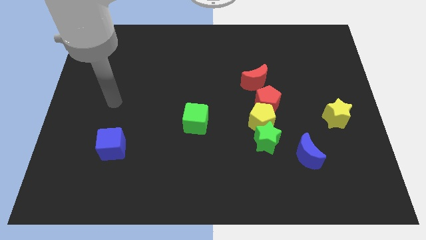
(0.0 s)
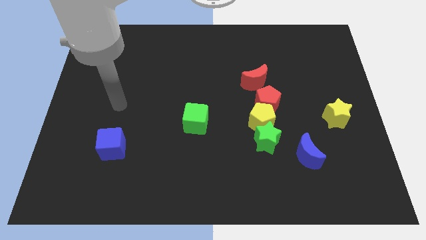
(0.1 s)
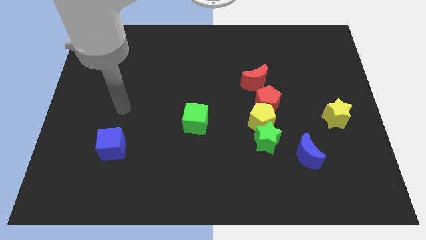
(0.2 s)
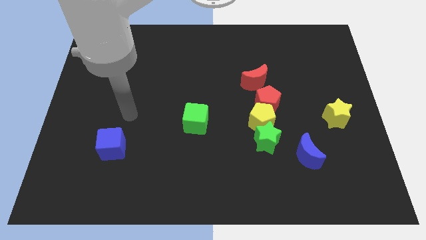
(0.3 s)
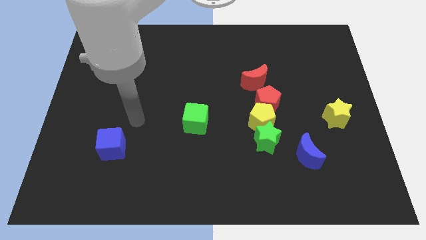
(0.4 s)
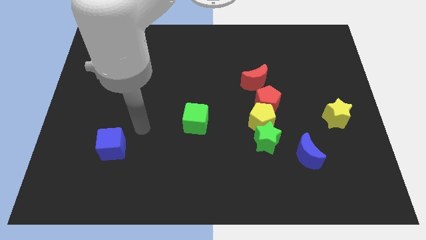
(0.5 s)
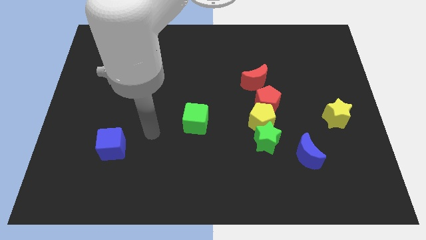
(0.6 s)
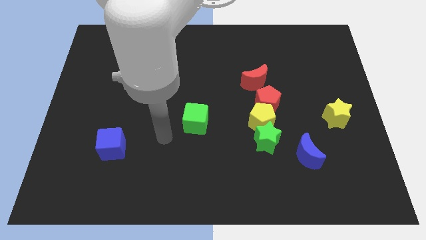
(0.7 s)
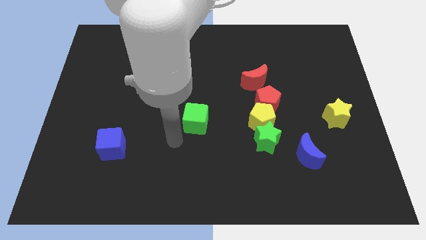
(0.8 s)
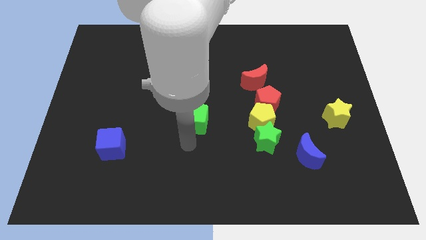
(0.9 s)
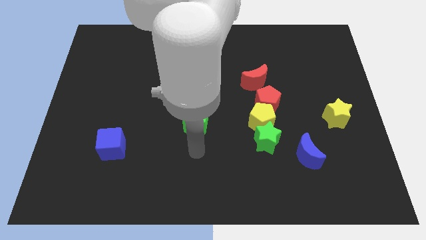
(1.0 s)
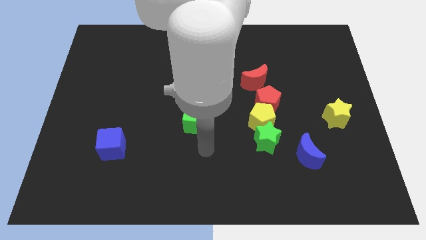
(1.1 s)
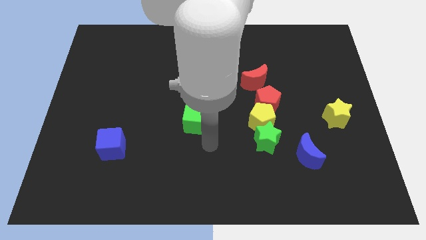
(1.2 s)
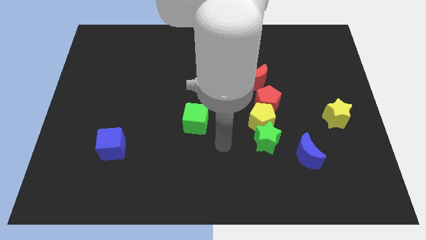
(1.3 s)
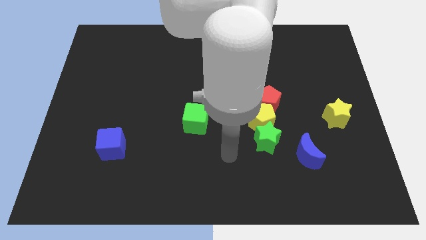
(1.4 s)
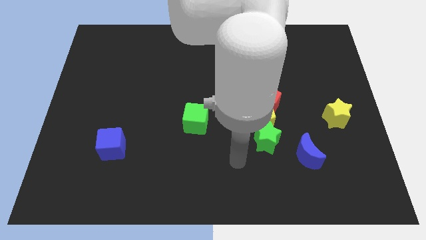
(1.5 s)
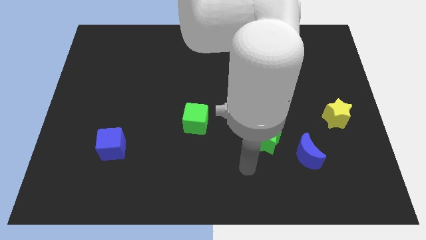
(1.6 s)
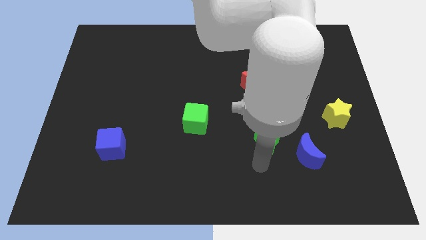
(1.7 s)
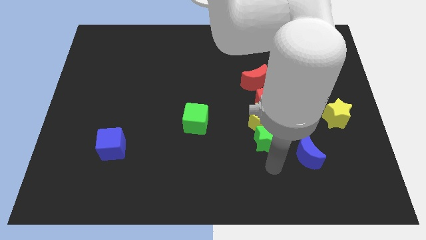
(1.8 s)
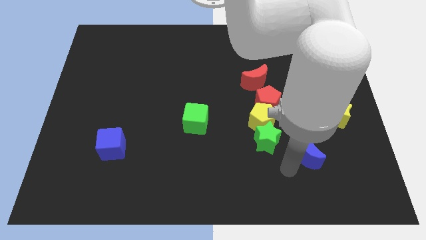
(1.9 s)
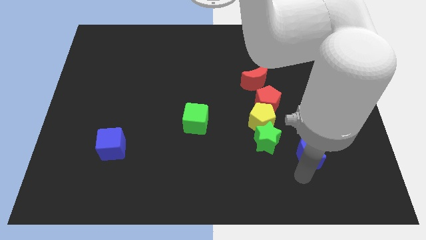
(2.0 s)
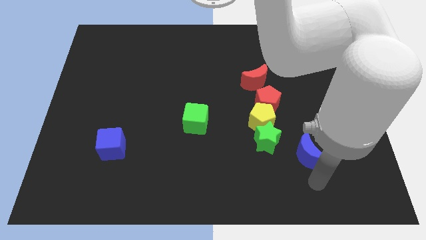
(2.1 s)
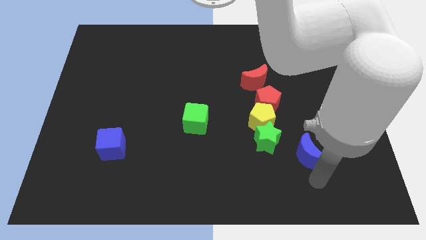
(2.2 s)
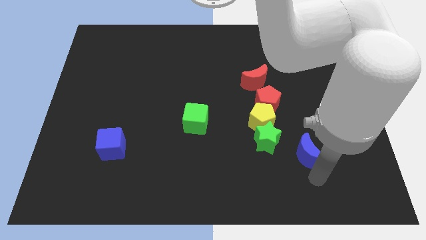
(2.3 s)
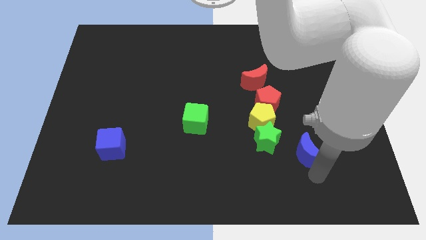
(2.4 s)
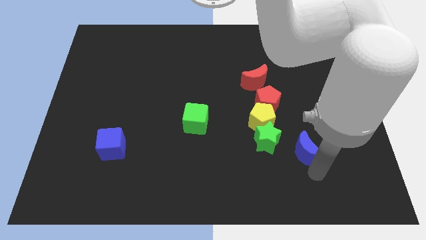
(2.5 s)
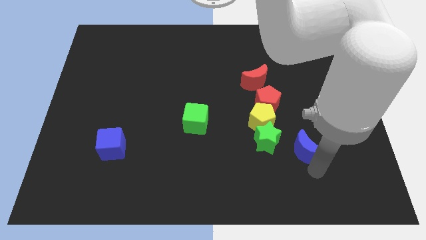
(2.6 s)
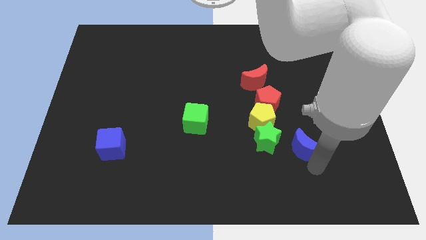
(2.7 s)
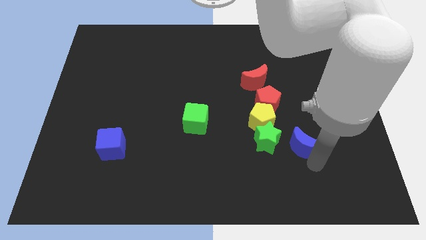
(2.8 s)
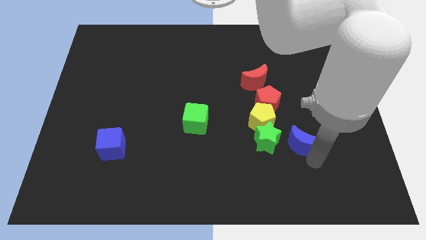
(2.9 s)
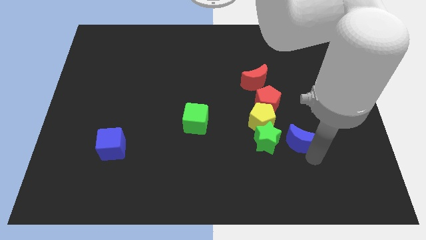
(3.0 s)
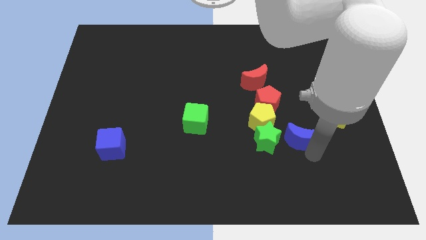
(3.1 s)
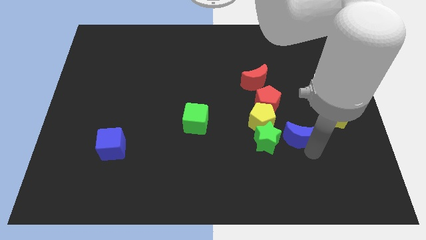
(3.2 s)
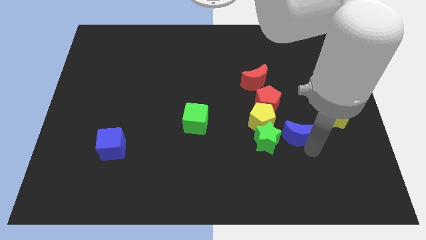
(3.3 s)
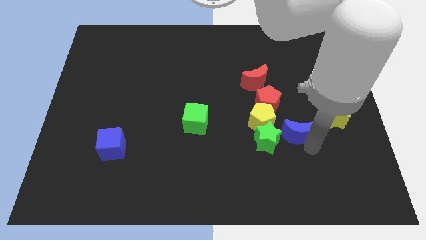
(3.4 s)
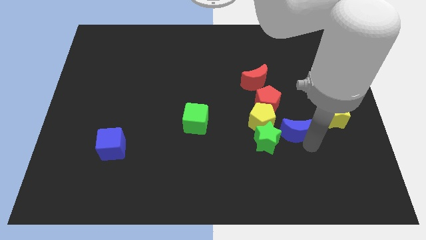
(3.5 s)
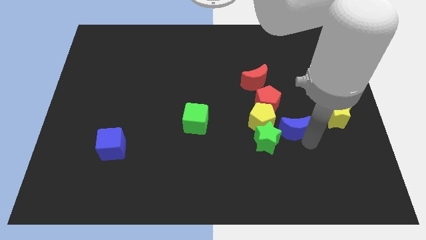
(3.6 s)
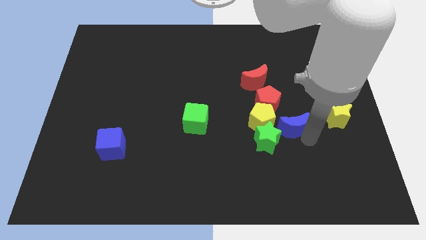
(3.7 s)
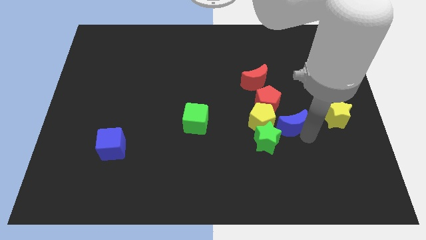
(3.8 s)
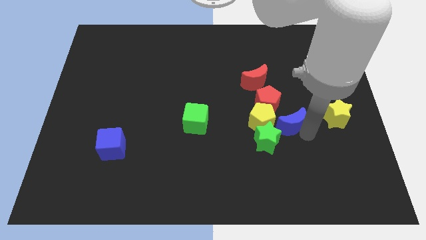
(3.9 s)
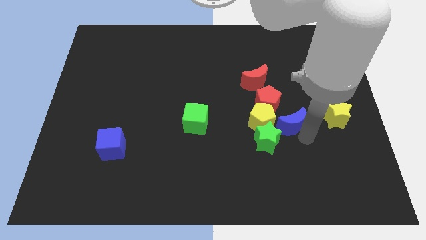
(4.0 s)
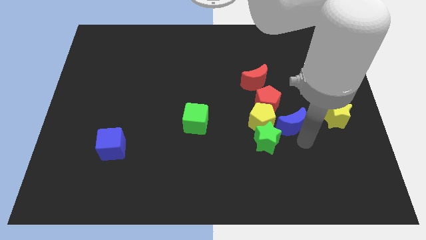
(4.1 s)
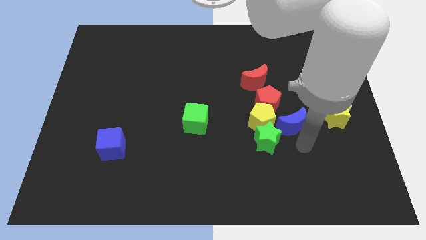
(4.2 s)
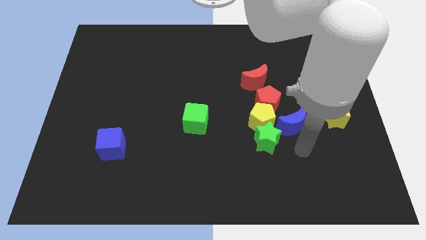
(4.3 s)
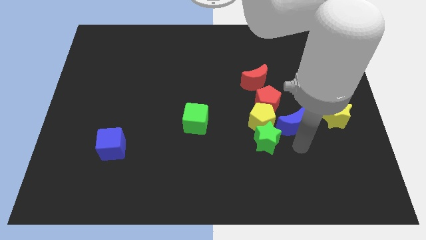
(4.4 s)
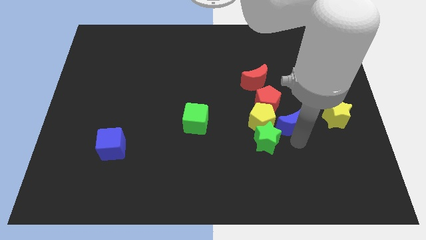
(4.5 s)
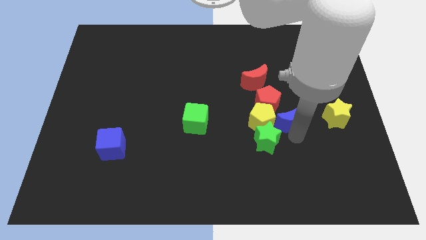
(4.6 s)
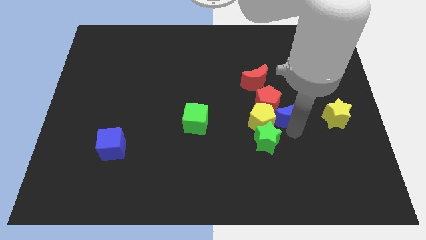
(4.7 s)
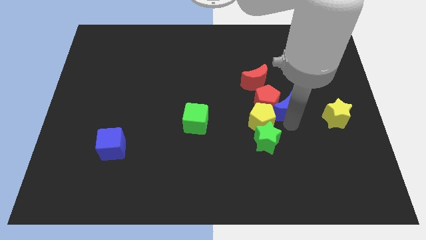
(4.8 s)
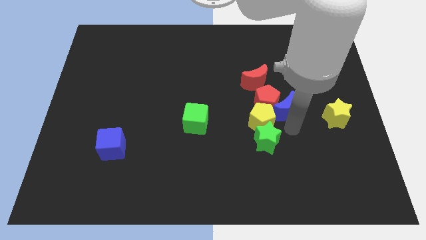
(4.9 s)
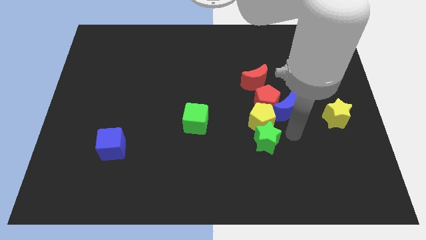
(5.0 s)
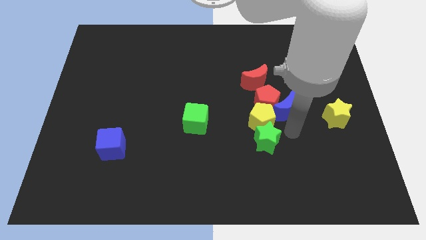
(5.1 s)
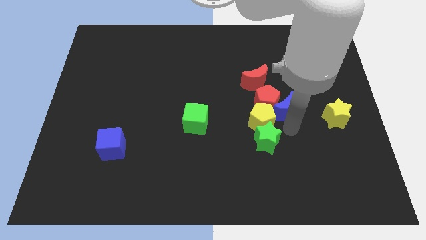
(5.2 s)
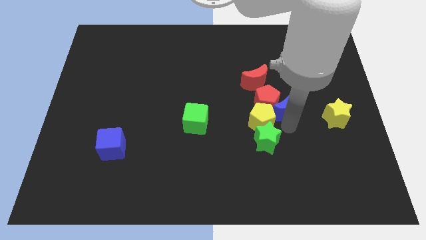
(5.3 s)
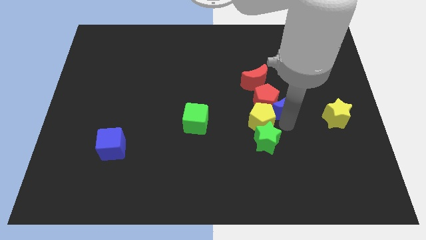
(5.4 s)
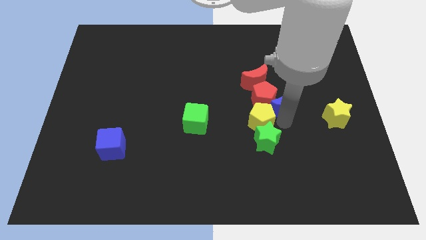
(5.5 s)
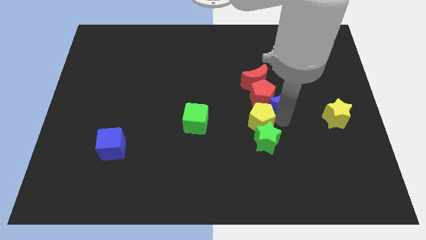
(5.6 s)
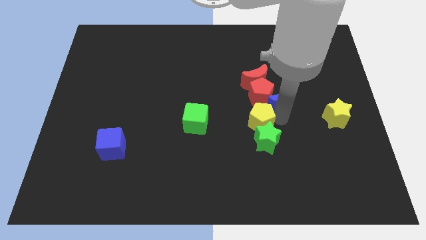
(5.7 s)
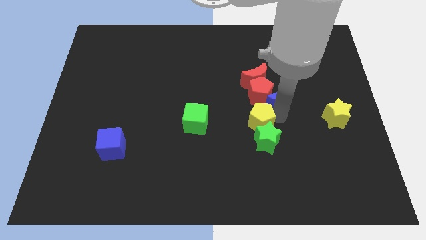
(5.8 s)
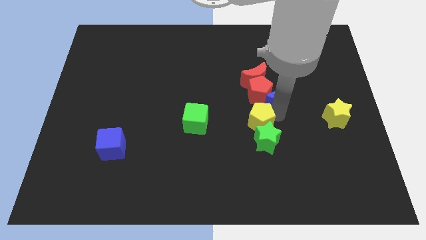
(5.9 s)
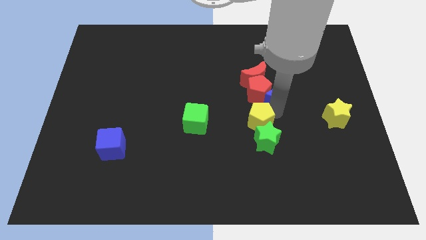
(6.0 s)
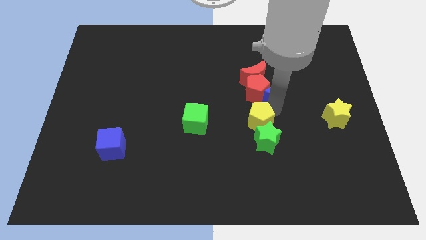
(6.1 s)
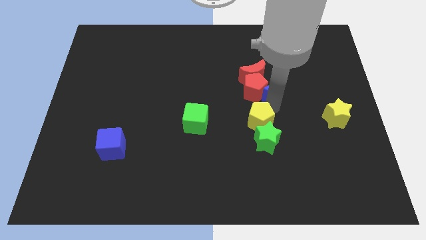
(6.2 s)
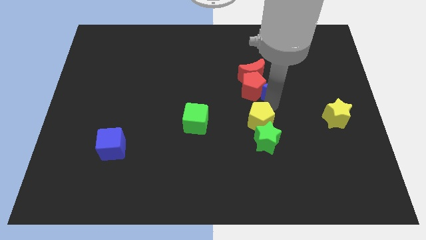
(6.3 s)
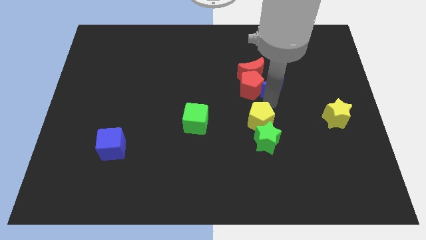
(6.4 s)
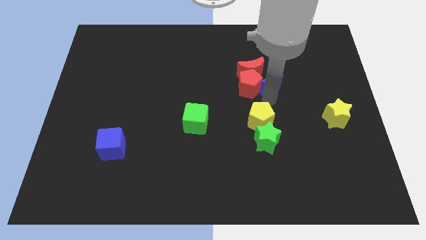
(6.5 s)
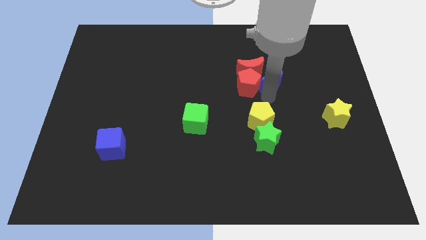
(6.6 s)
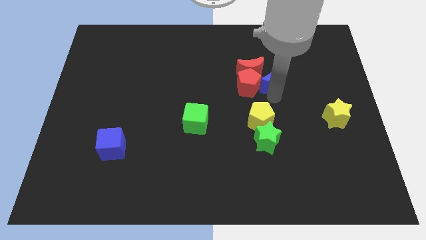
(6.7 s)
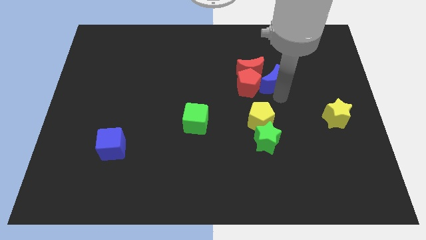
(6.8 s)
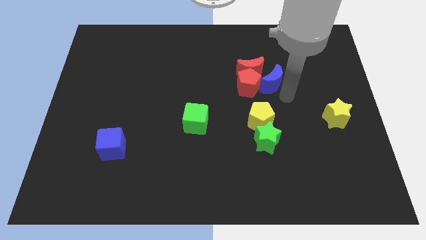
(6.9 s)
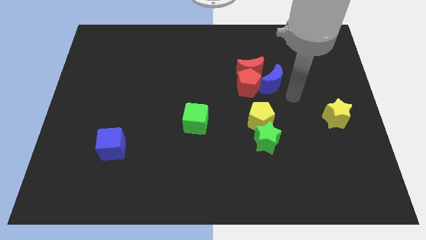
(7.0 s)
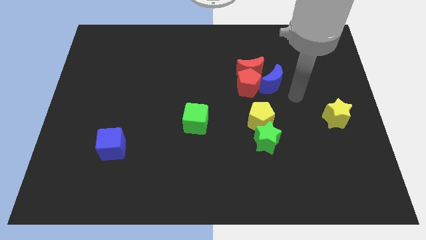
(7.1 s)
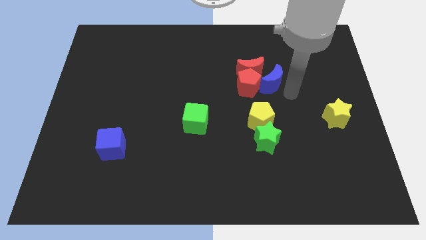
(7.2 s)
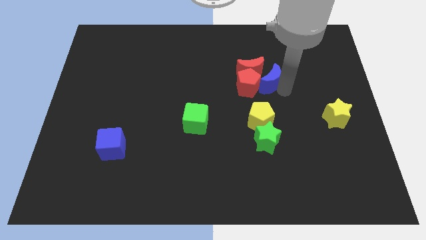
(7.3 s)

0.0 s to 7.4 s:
put the blue moon to the red moon
